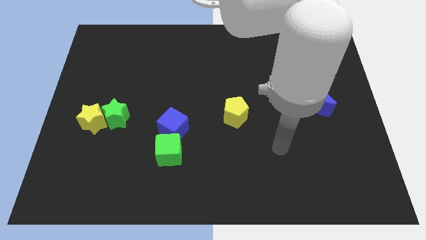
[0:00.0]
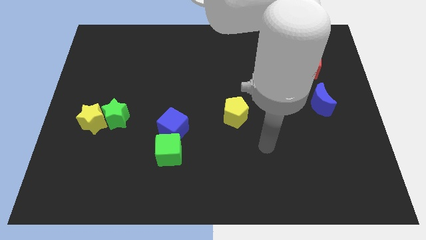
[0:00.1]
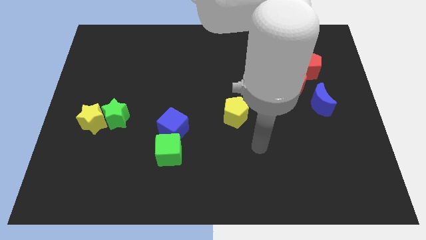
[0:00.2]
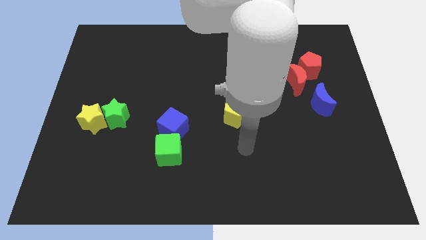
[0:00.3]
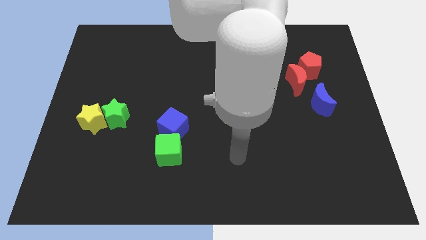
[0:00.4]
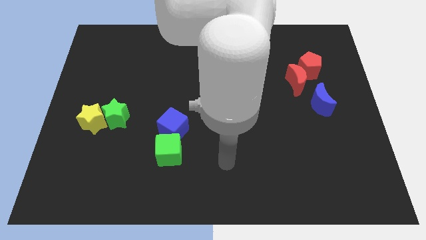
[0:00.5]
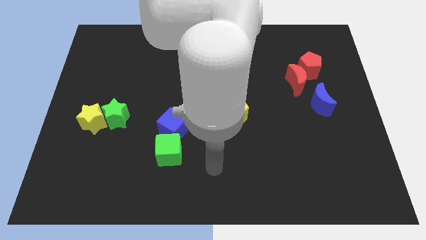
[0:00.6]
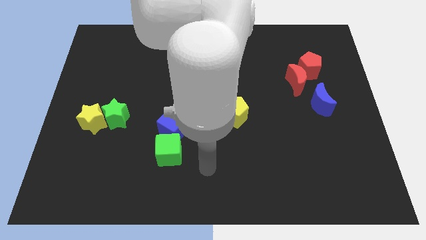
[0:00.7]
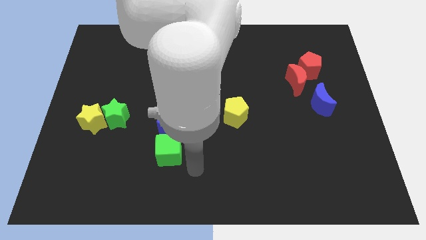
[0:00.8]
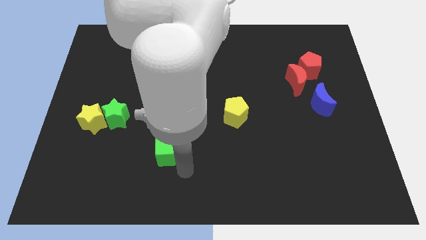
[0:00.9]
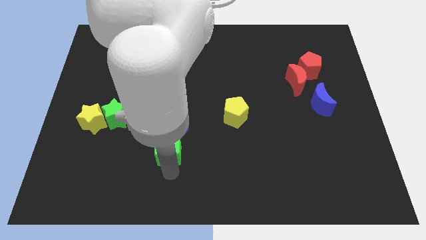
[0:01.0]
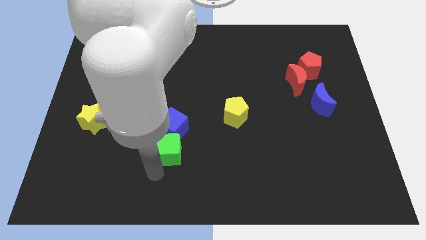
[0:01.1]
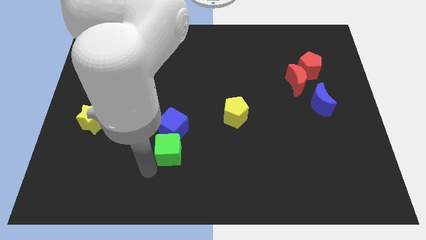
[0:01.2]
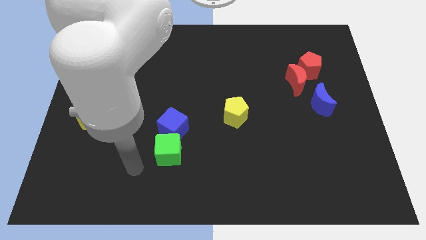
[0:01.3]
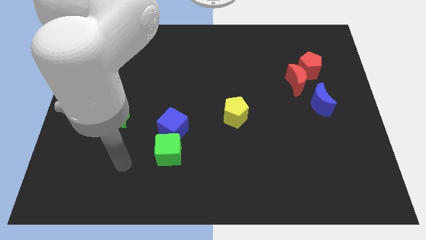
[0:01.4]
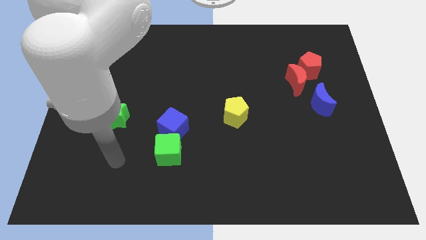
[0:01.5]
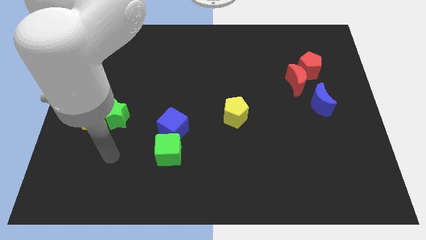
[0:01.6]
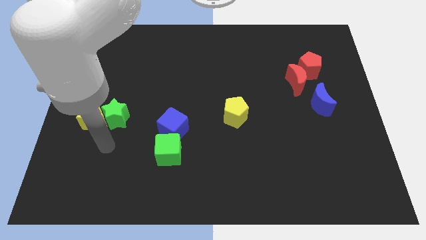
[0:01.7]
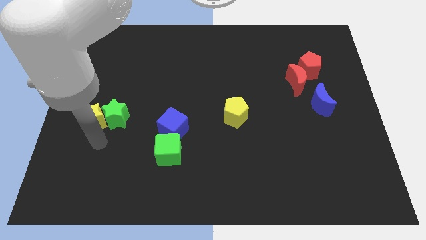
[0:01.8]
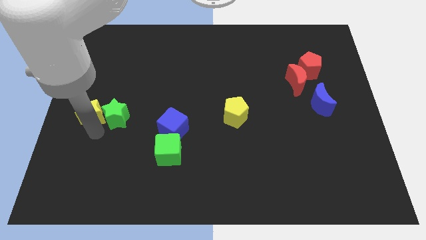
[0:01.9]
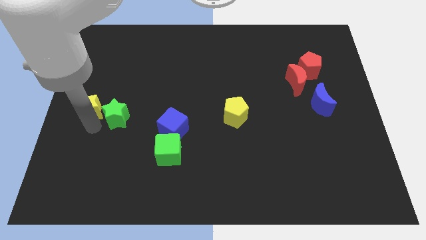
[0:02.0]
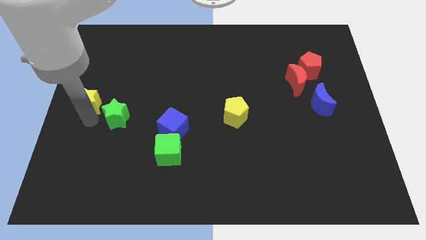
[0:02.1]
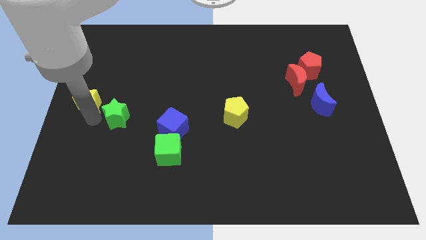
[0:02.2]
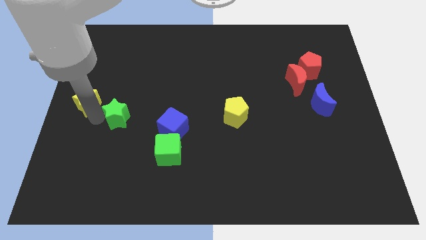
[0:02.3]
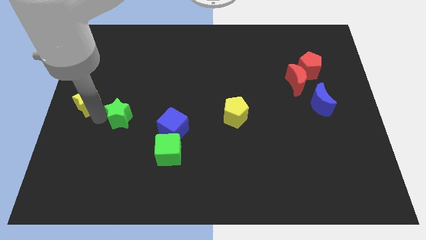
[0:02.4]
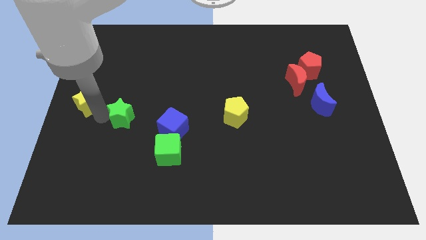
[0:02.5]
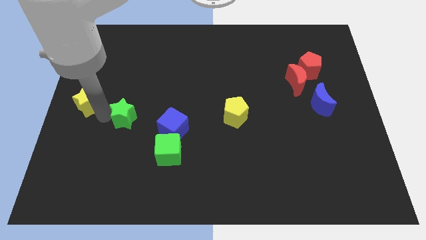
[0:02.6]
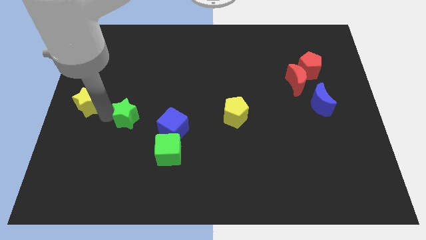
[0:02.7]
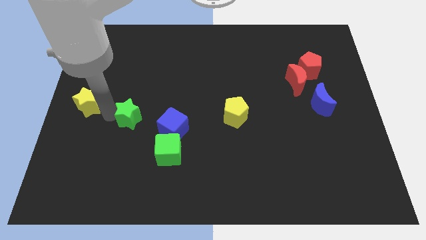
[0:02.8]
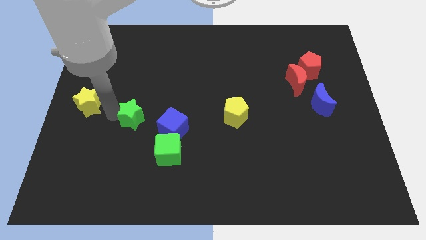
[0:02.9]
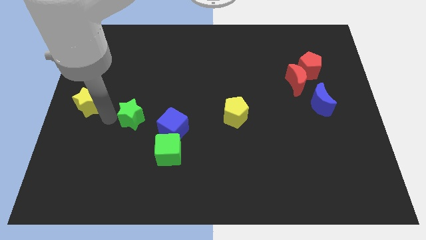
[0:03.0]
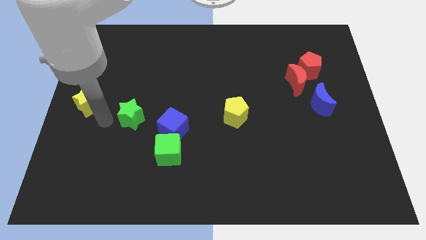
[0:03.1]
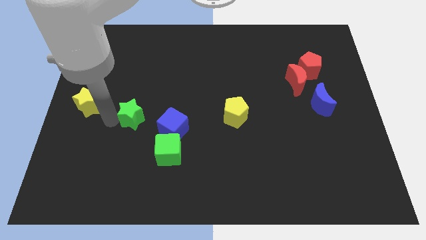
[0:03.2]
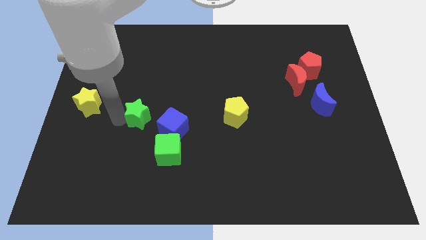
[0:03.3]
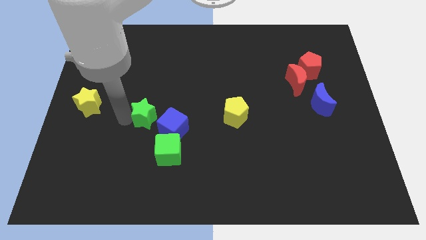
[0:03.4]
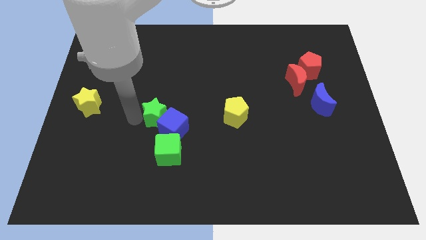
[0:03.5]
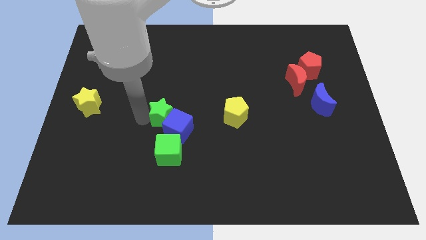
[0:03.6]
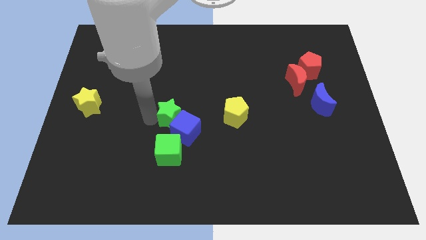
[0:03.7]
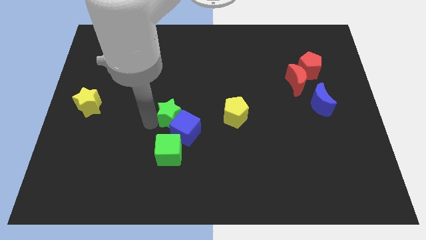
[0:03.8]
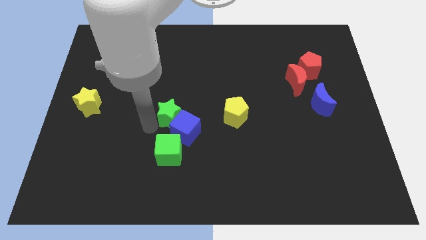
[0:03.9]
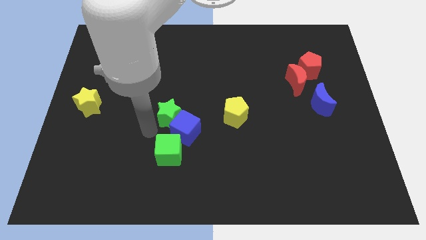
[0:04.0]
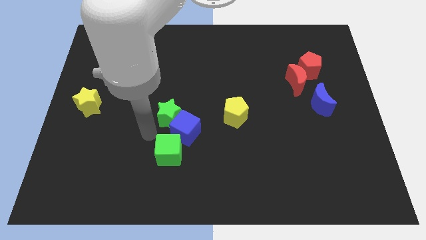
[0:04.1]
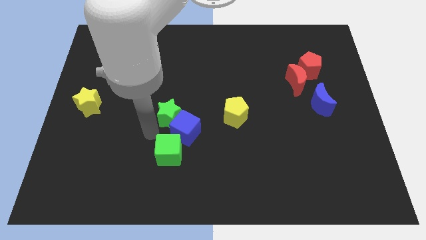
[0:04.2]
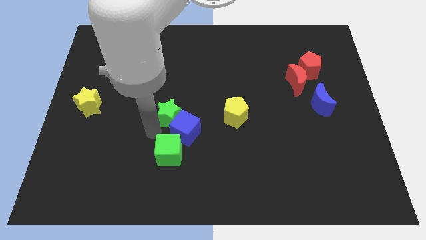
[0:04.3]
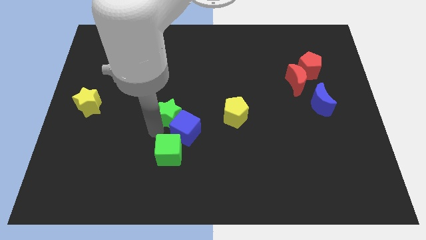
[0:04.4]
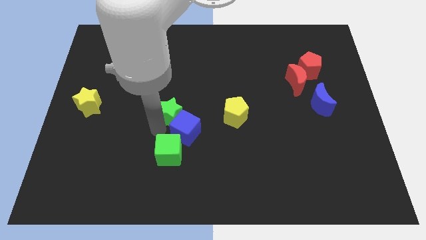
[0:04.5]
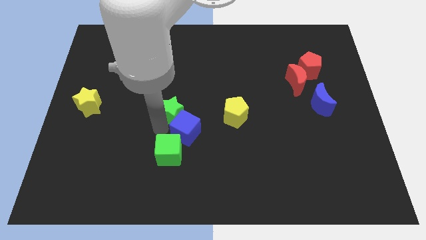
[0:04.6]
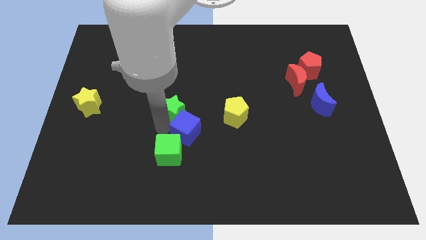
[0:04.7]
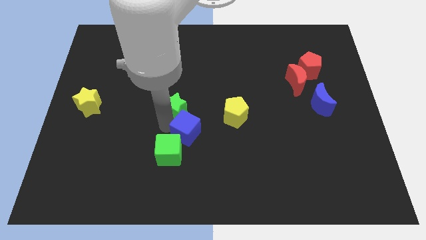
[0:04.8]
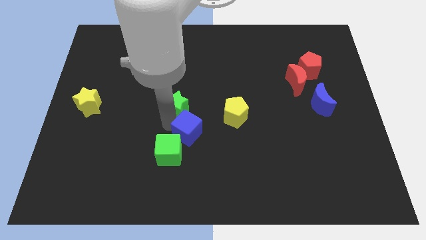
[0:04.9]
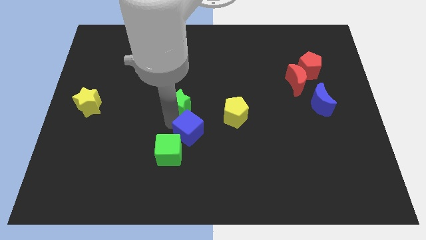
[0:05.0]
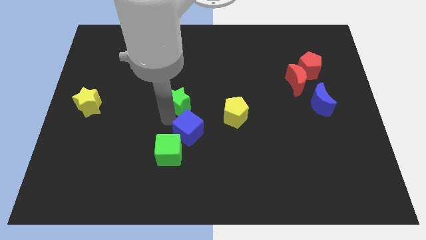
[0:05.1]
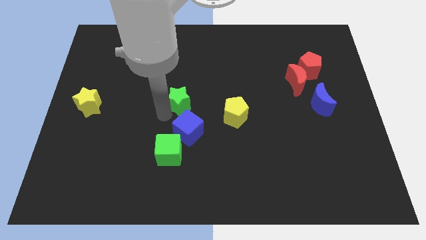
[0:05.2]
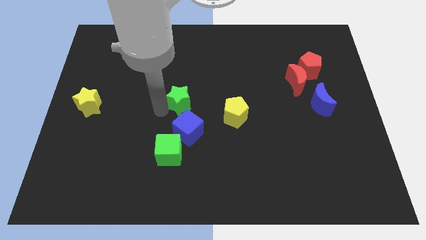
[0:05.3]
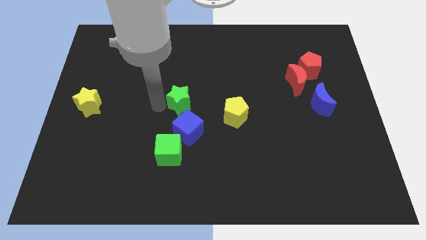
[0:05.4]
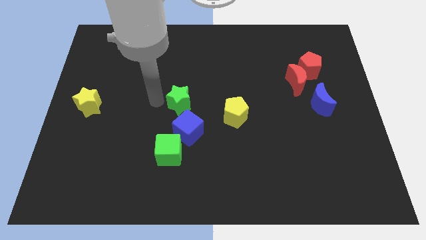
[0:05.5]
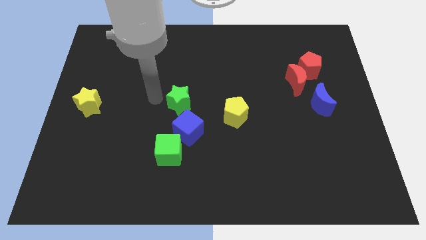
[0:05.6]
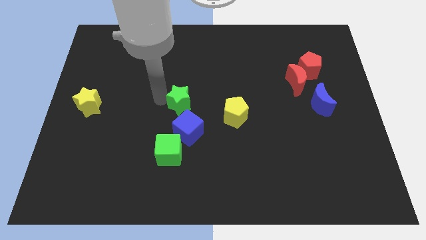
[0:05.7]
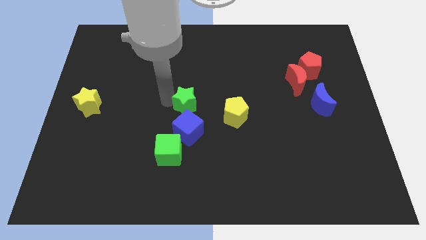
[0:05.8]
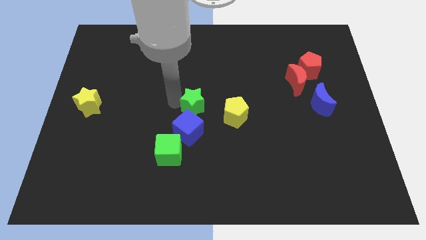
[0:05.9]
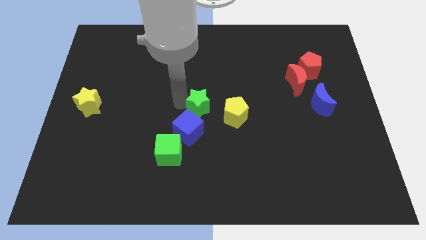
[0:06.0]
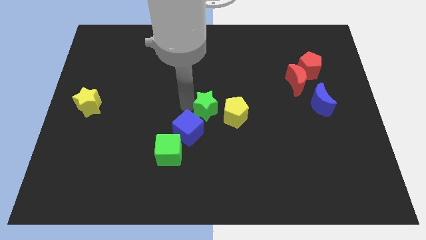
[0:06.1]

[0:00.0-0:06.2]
move the green star right

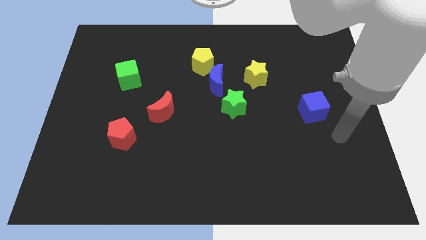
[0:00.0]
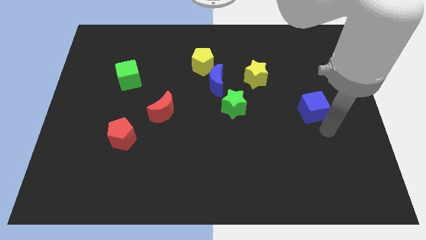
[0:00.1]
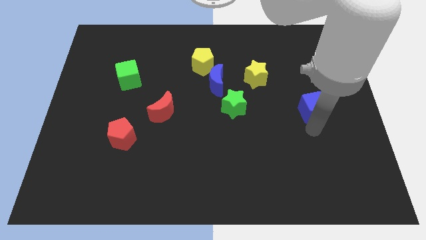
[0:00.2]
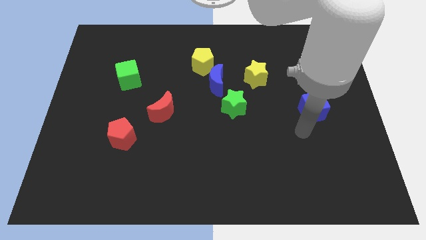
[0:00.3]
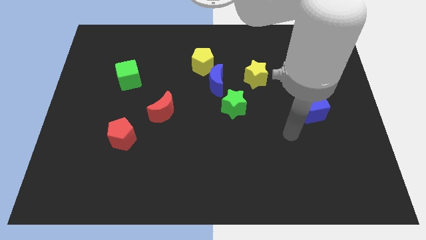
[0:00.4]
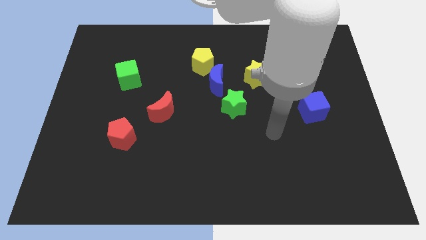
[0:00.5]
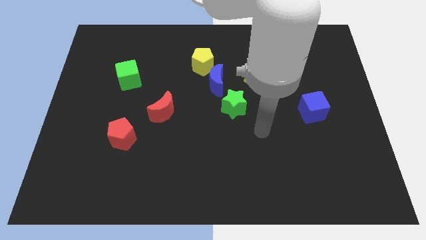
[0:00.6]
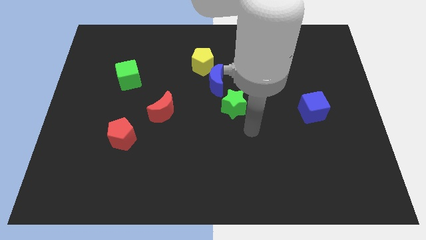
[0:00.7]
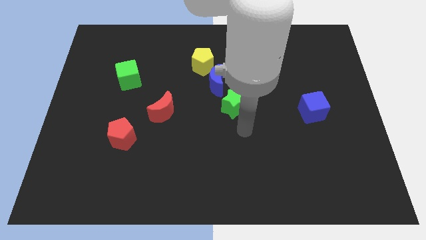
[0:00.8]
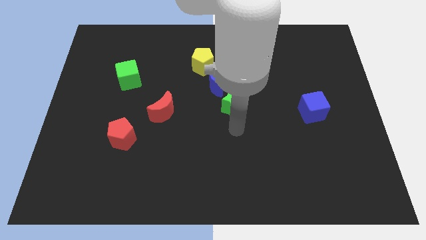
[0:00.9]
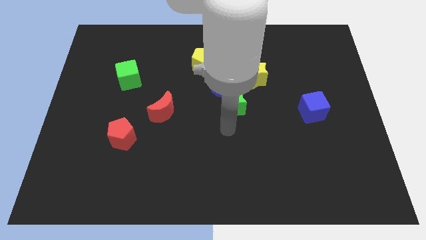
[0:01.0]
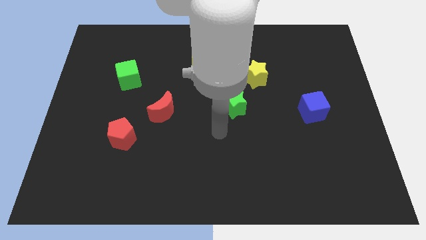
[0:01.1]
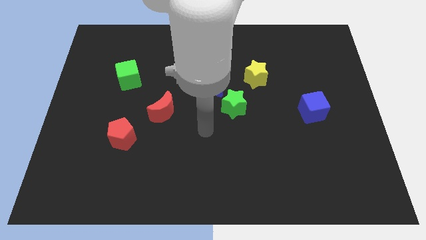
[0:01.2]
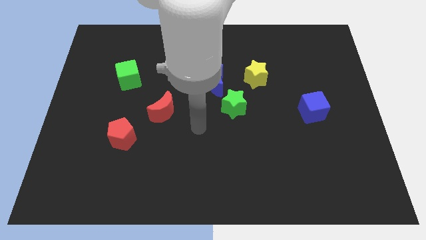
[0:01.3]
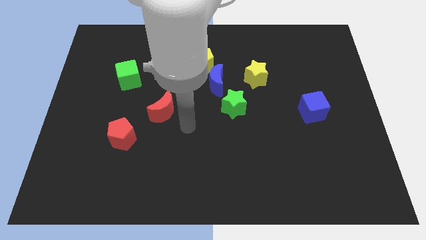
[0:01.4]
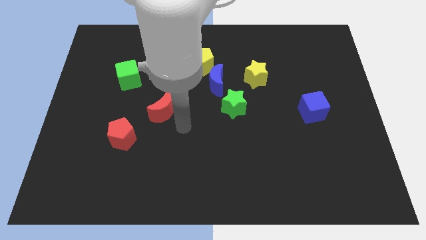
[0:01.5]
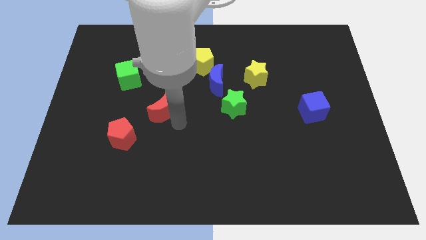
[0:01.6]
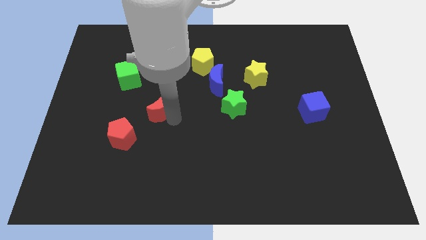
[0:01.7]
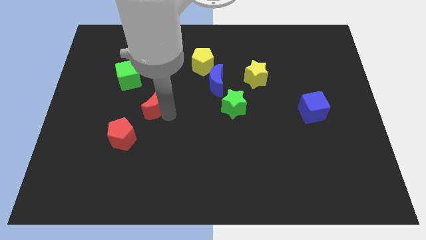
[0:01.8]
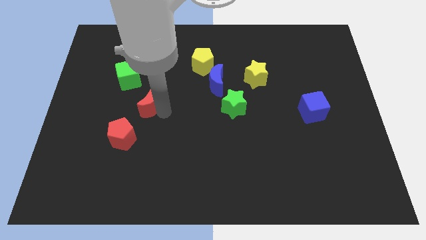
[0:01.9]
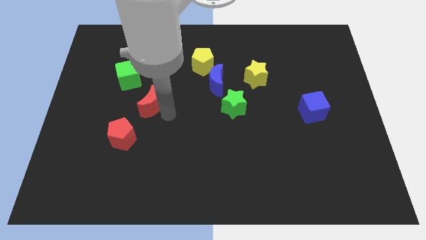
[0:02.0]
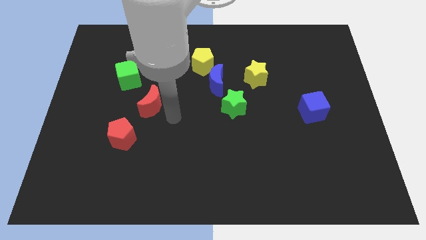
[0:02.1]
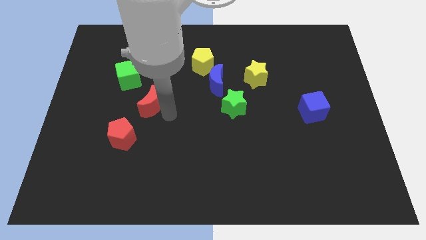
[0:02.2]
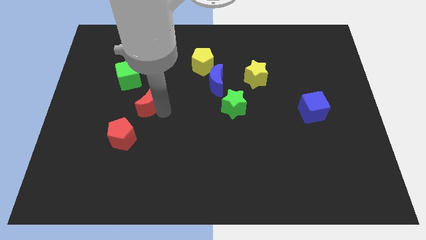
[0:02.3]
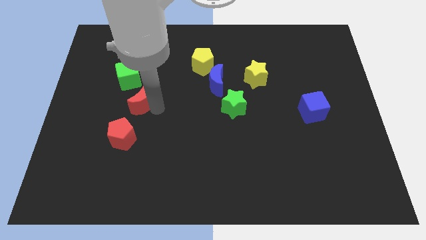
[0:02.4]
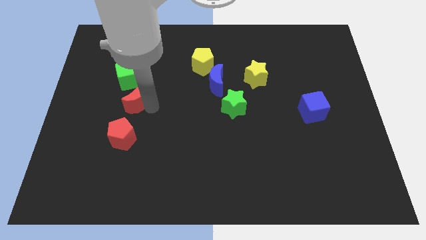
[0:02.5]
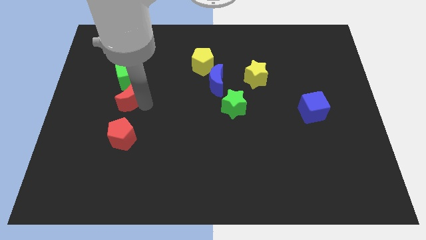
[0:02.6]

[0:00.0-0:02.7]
push the red moon up and left a bit
